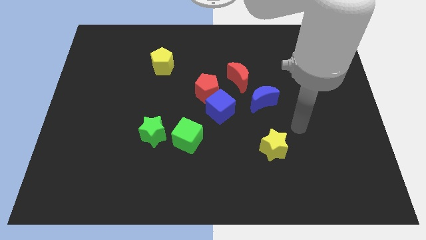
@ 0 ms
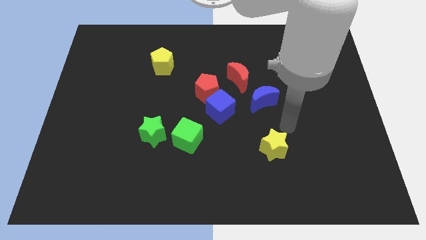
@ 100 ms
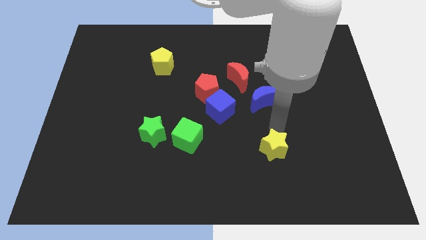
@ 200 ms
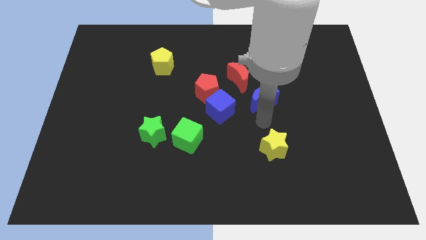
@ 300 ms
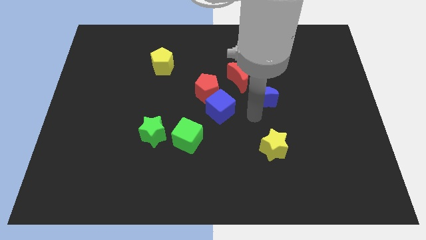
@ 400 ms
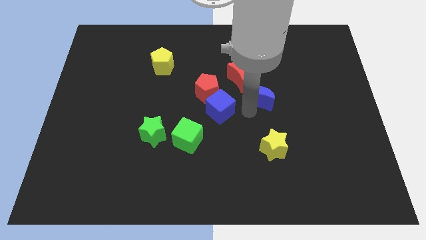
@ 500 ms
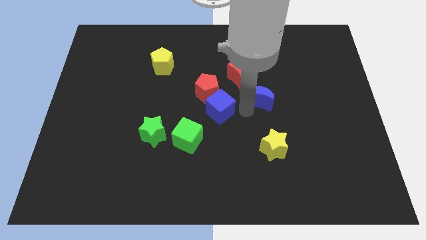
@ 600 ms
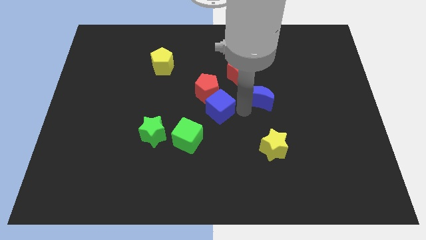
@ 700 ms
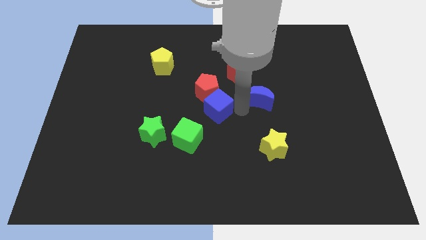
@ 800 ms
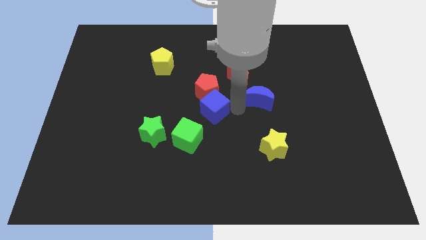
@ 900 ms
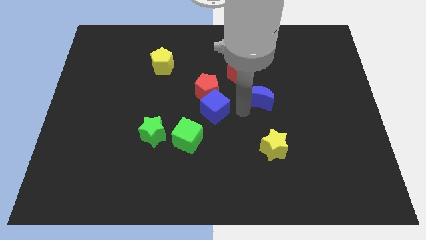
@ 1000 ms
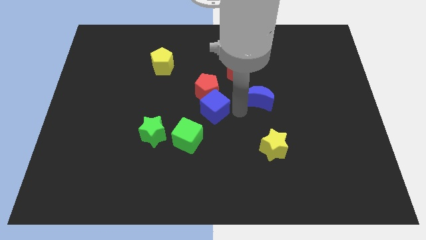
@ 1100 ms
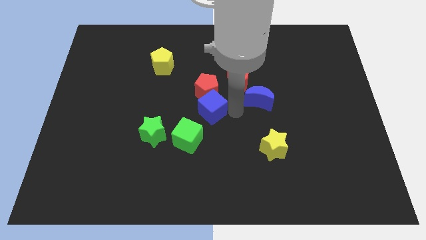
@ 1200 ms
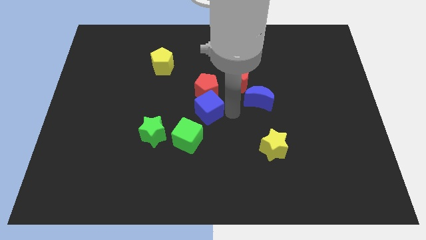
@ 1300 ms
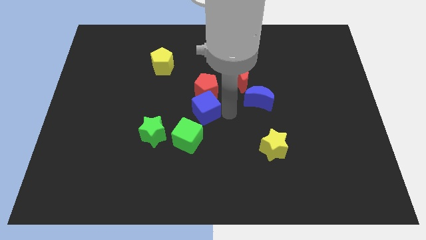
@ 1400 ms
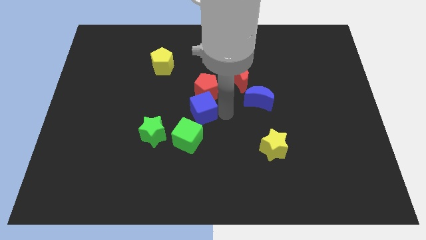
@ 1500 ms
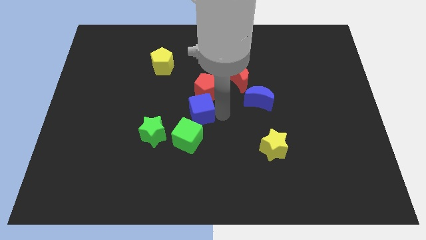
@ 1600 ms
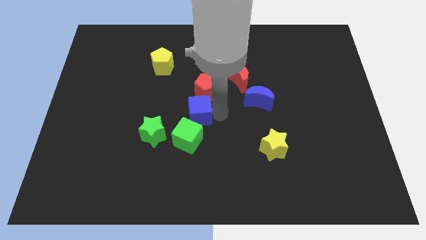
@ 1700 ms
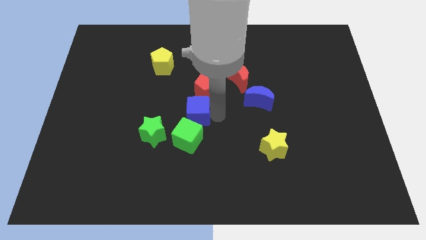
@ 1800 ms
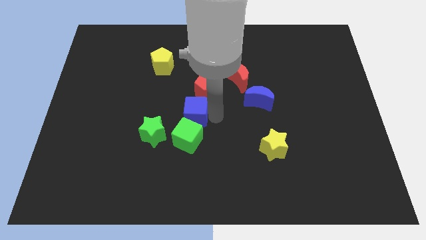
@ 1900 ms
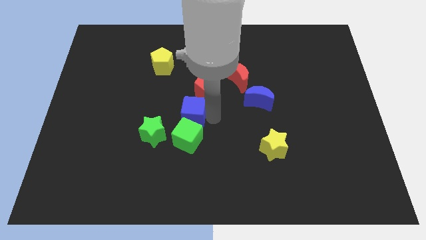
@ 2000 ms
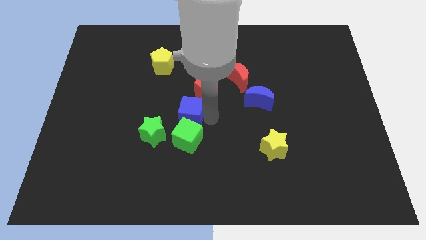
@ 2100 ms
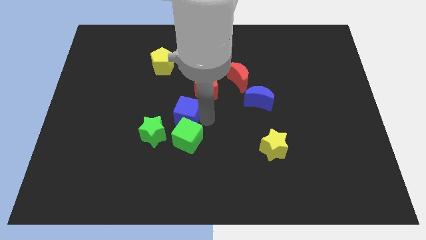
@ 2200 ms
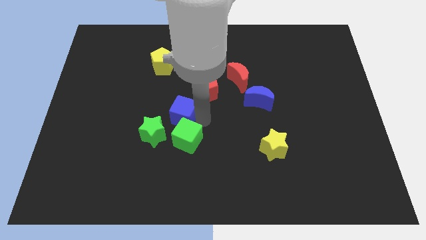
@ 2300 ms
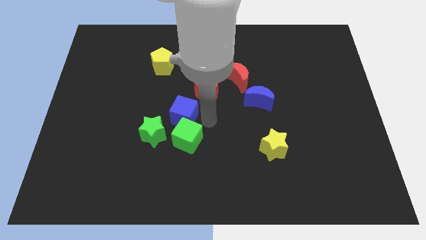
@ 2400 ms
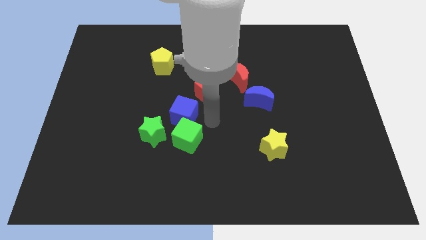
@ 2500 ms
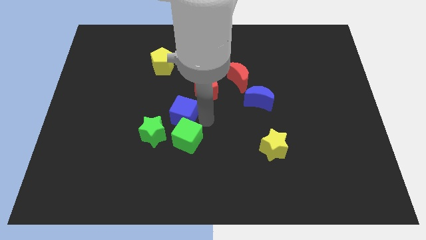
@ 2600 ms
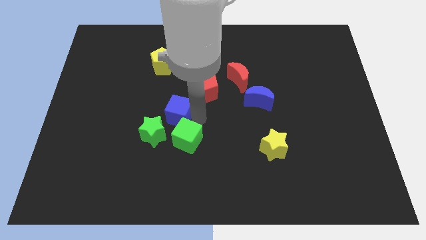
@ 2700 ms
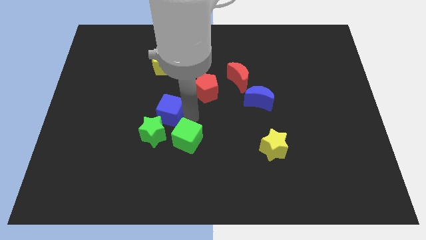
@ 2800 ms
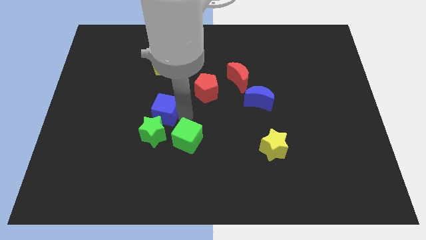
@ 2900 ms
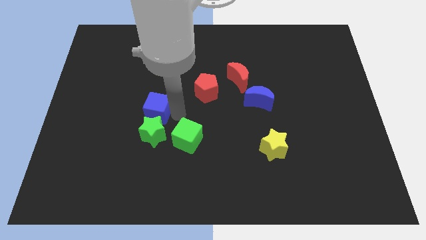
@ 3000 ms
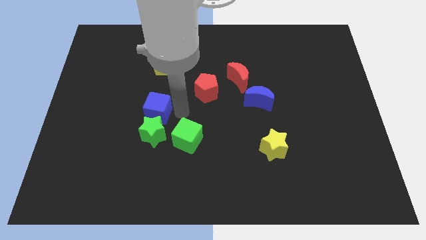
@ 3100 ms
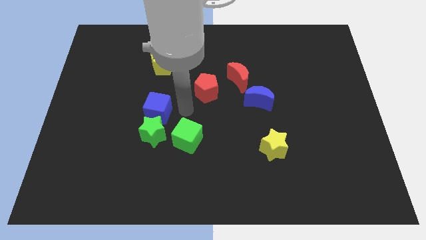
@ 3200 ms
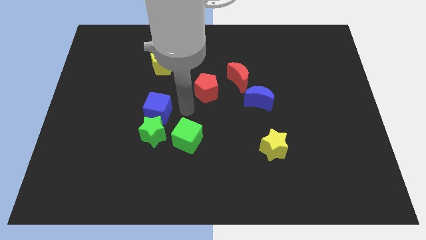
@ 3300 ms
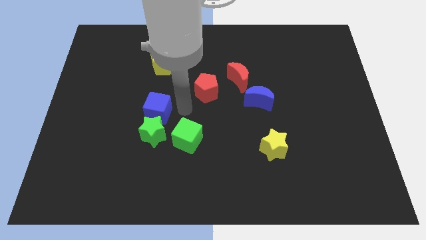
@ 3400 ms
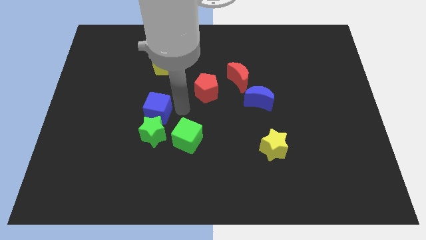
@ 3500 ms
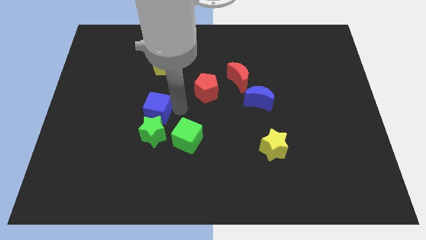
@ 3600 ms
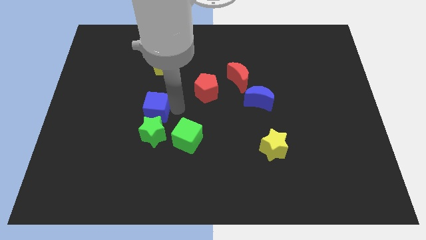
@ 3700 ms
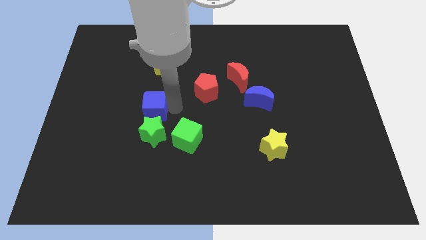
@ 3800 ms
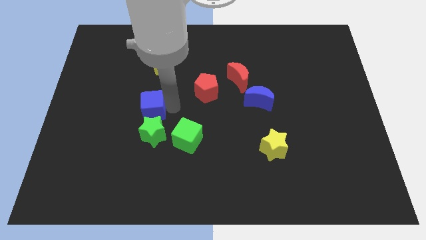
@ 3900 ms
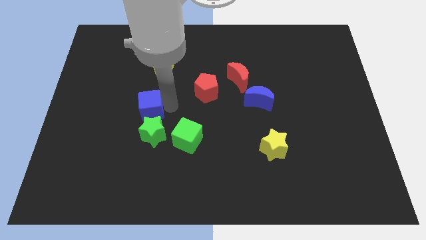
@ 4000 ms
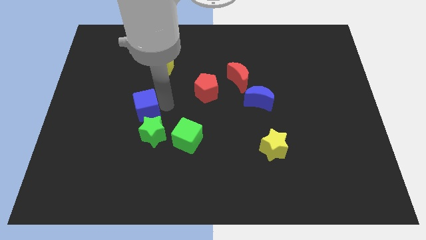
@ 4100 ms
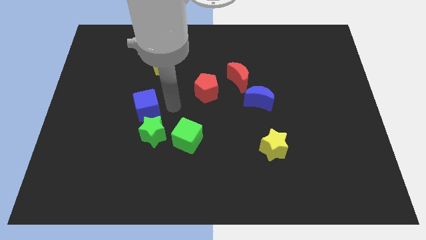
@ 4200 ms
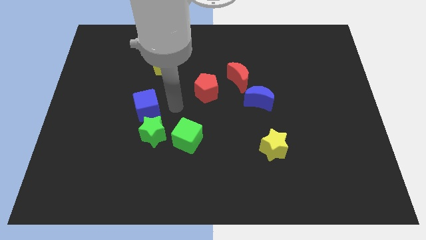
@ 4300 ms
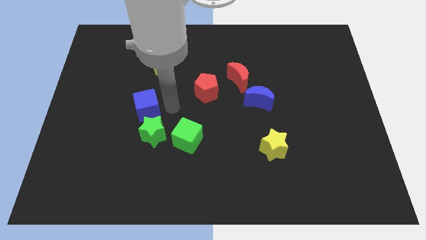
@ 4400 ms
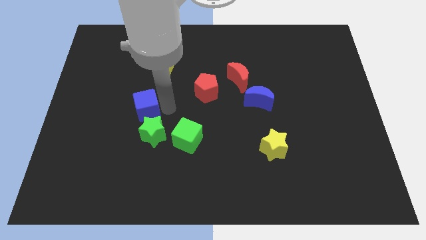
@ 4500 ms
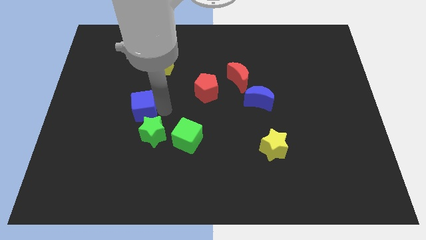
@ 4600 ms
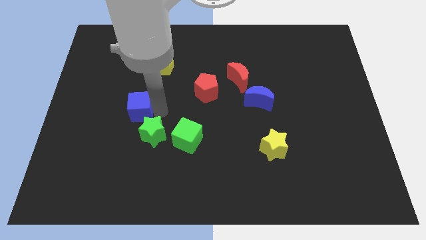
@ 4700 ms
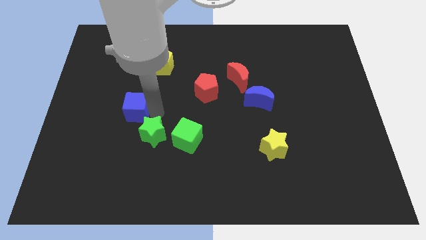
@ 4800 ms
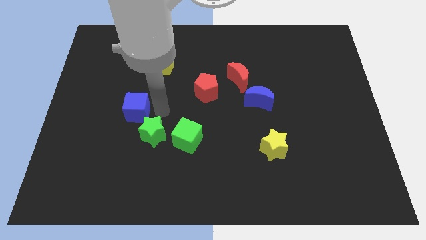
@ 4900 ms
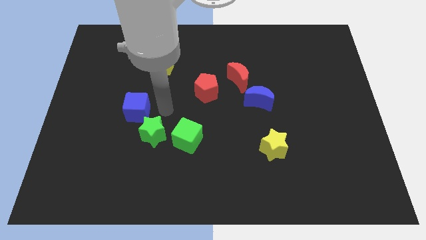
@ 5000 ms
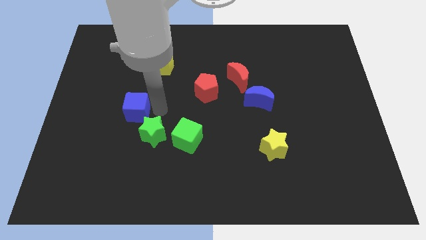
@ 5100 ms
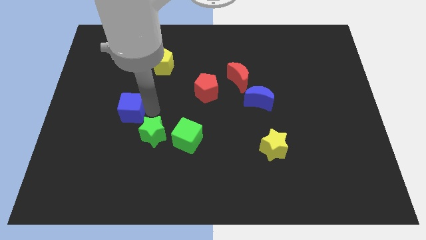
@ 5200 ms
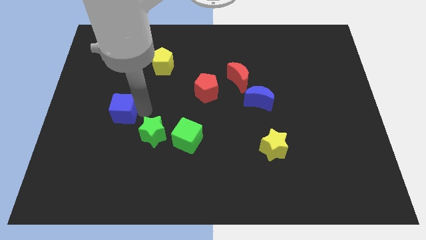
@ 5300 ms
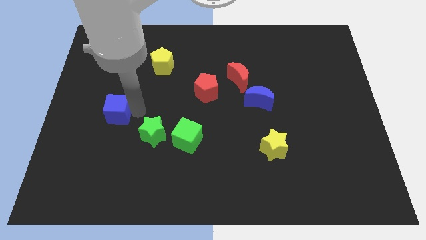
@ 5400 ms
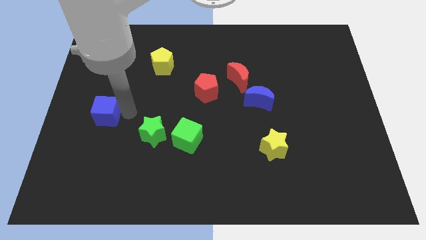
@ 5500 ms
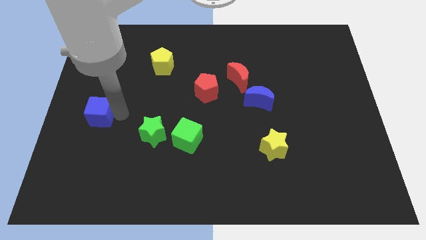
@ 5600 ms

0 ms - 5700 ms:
push the blue cube to the left side

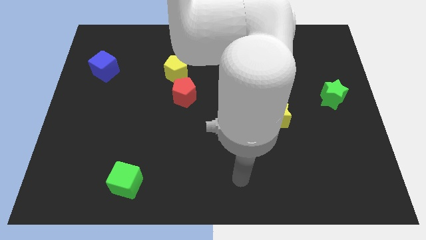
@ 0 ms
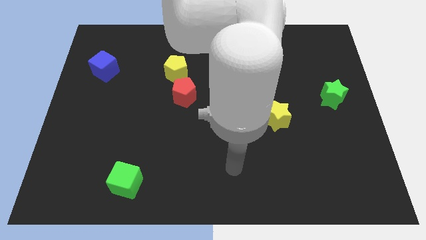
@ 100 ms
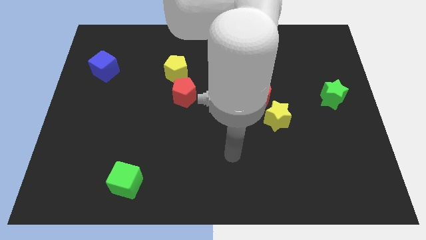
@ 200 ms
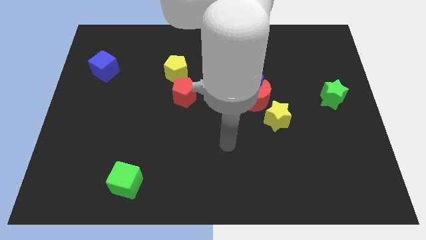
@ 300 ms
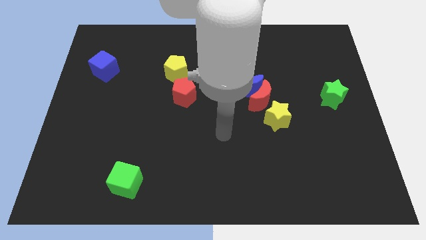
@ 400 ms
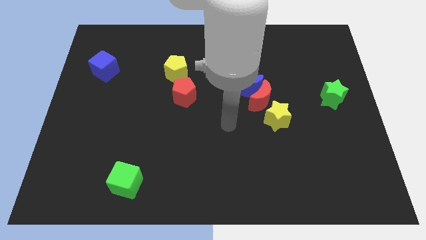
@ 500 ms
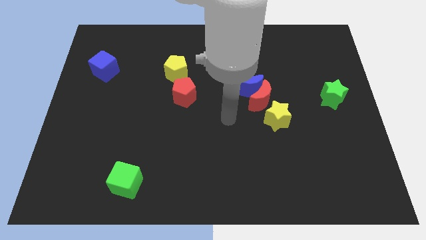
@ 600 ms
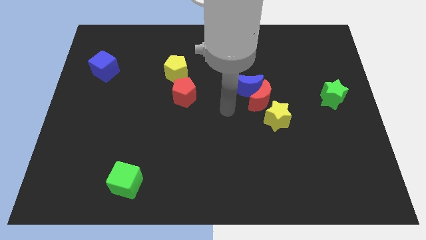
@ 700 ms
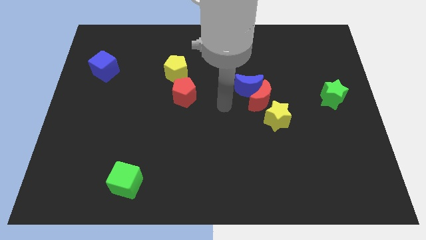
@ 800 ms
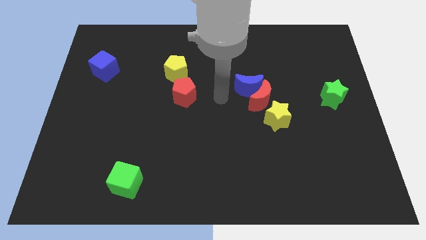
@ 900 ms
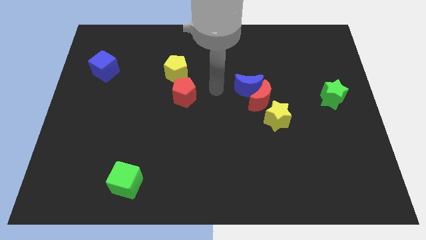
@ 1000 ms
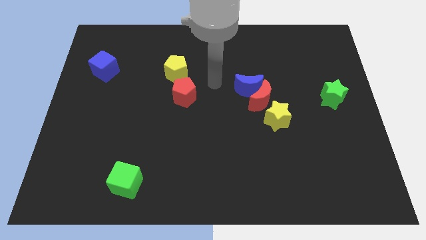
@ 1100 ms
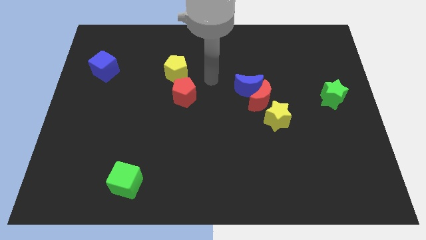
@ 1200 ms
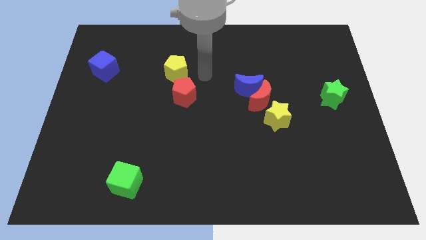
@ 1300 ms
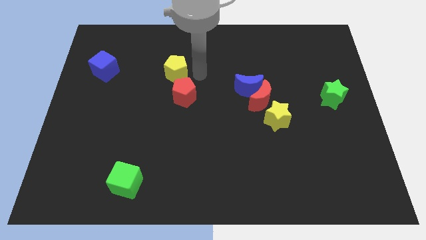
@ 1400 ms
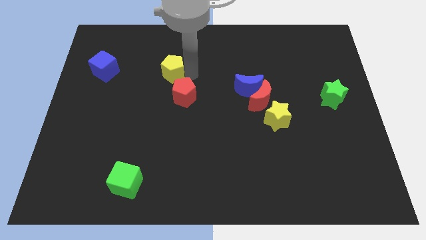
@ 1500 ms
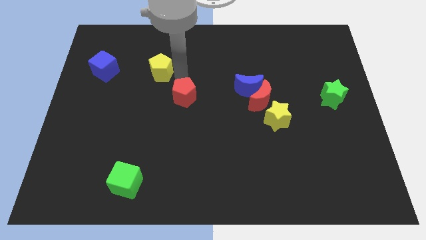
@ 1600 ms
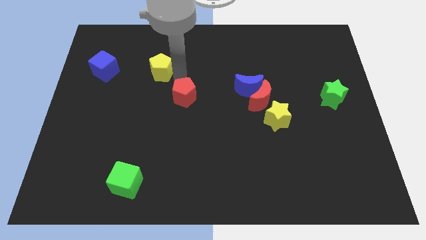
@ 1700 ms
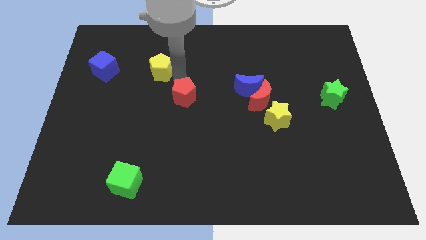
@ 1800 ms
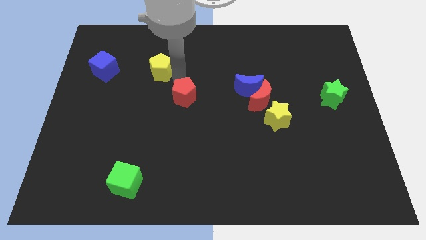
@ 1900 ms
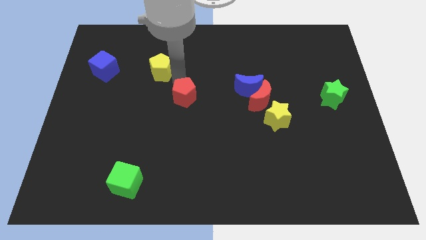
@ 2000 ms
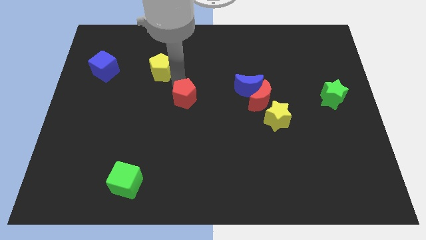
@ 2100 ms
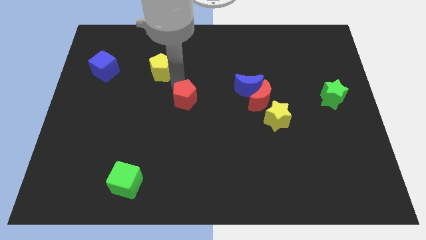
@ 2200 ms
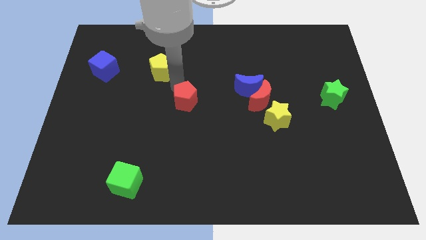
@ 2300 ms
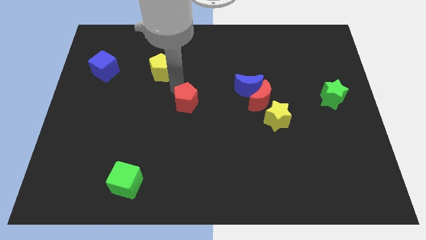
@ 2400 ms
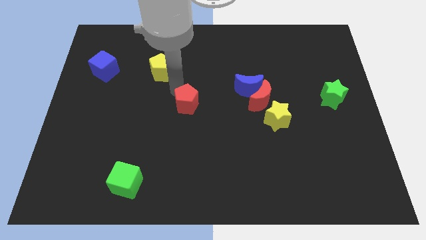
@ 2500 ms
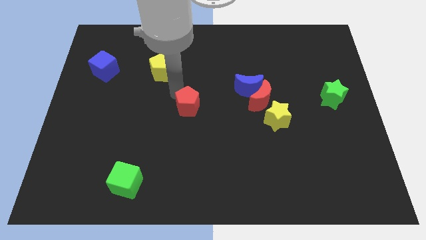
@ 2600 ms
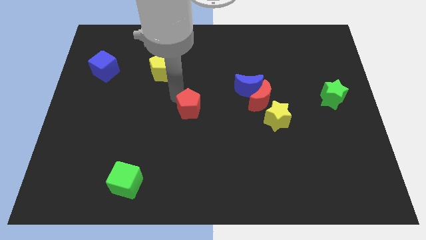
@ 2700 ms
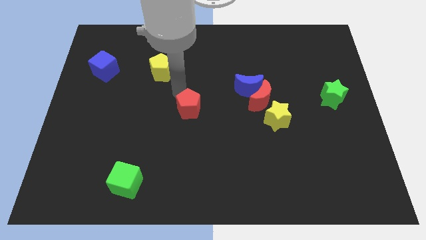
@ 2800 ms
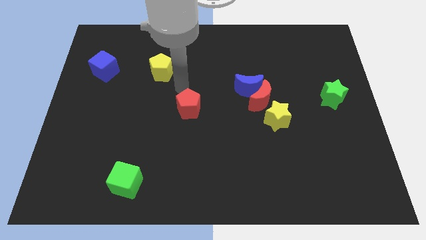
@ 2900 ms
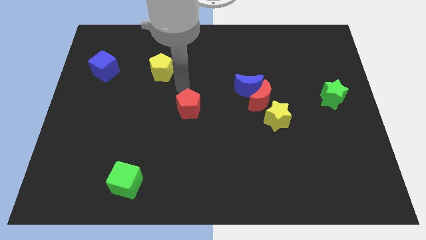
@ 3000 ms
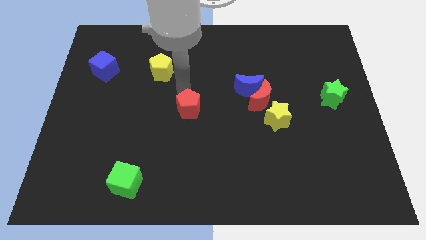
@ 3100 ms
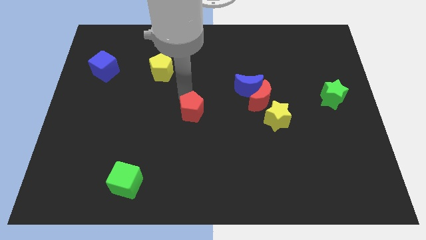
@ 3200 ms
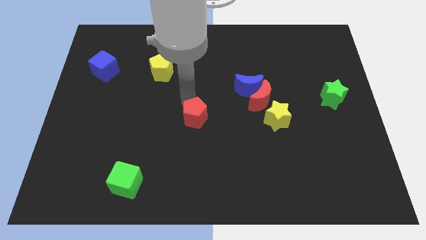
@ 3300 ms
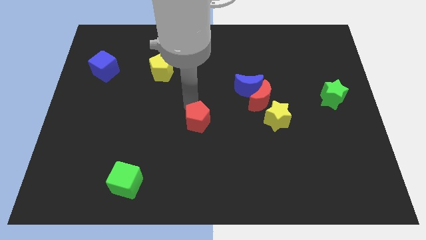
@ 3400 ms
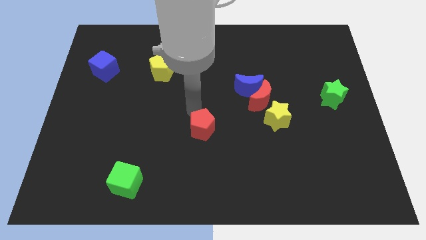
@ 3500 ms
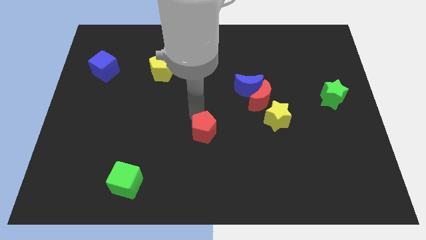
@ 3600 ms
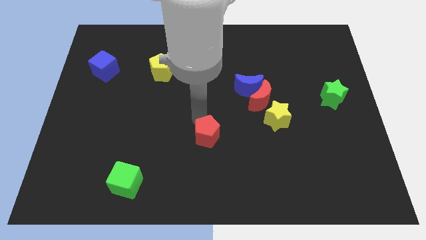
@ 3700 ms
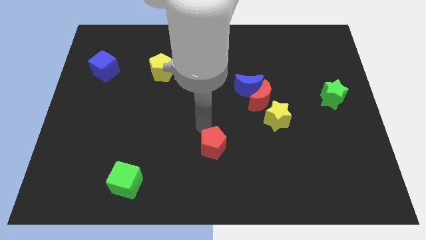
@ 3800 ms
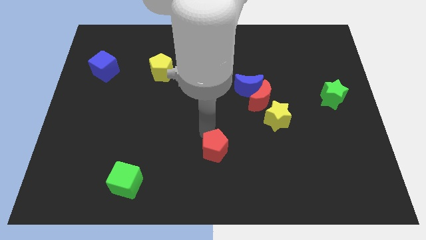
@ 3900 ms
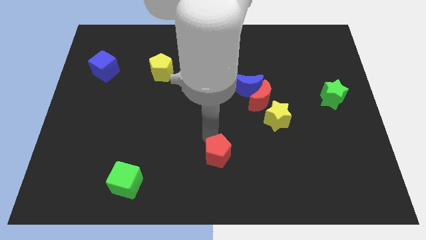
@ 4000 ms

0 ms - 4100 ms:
put the red pentagon to the bottom side
